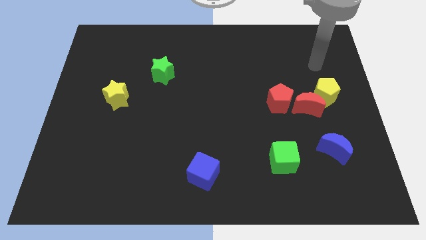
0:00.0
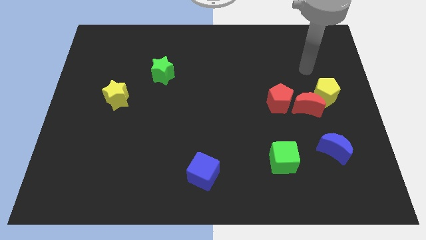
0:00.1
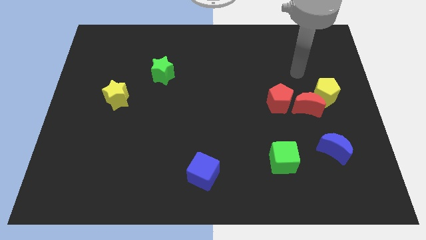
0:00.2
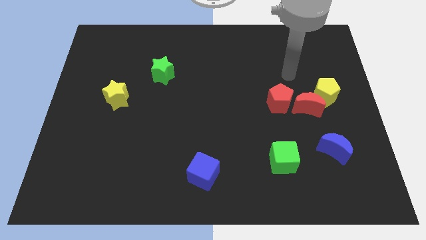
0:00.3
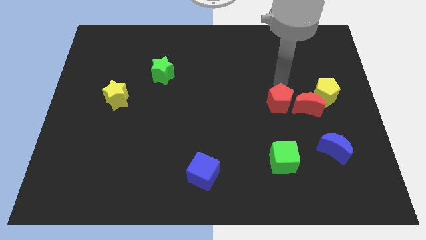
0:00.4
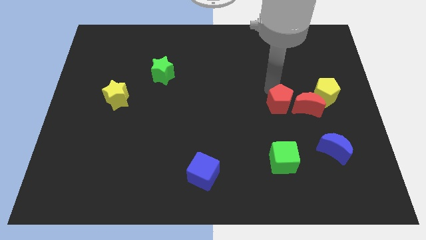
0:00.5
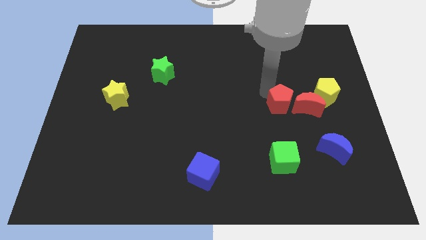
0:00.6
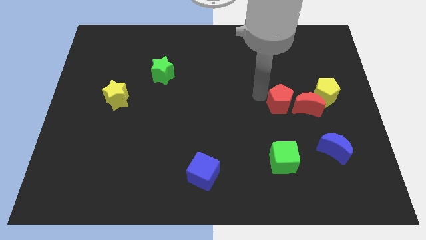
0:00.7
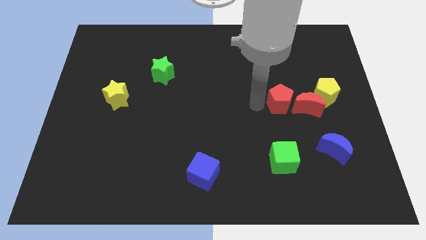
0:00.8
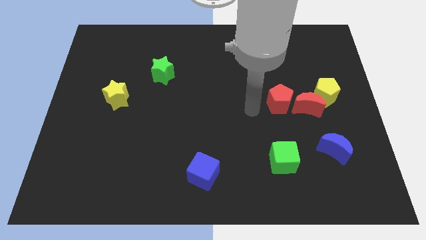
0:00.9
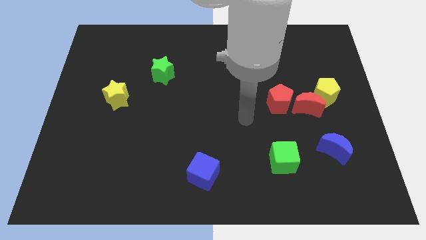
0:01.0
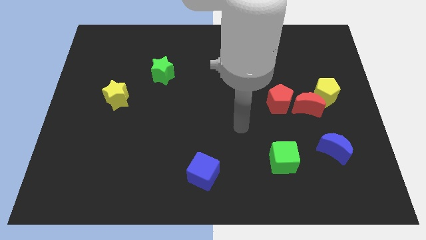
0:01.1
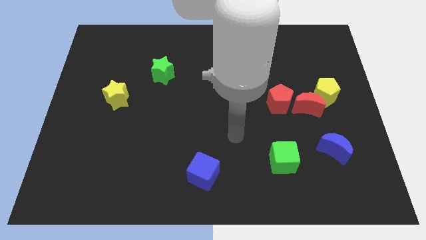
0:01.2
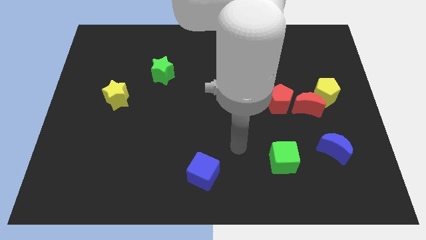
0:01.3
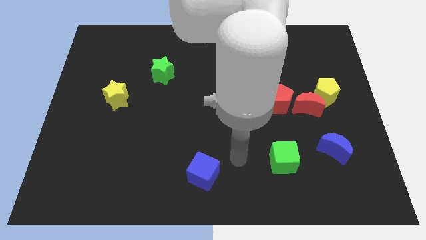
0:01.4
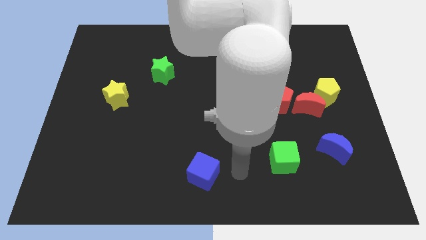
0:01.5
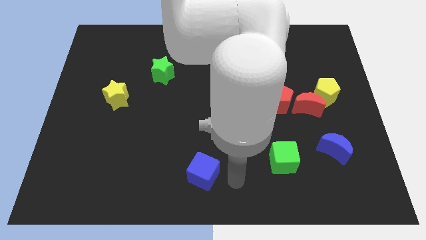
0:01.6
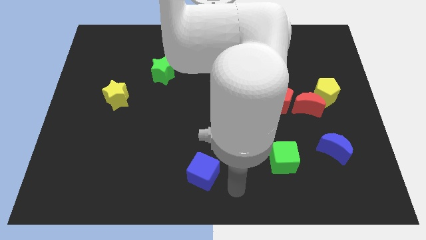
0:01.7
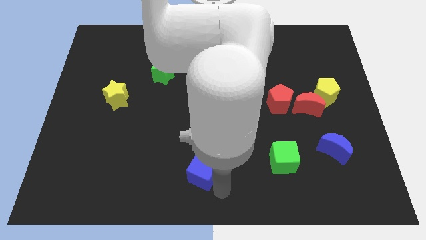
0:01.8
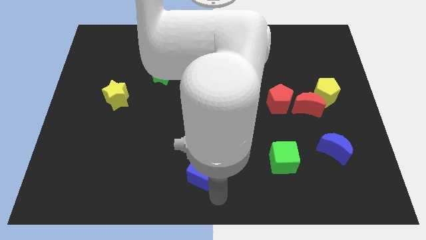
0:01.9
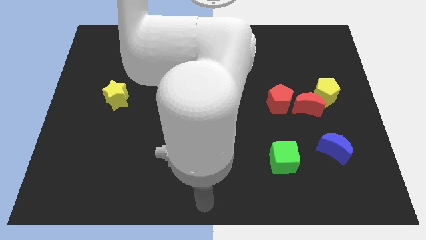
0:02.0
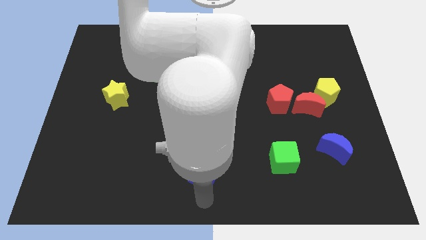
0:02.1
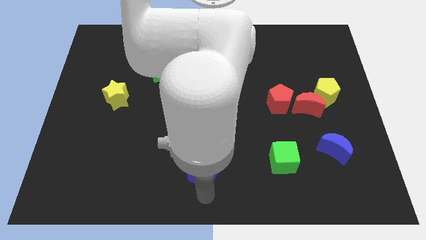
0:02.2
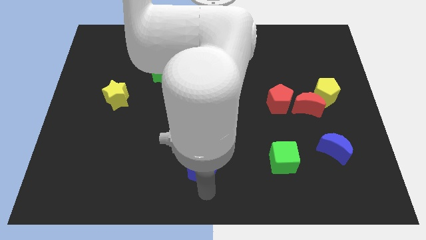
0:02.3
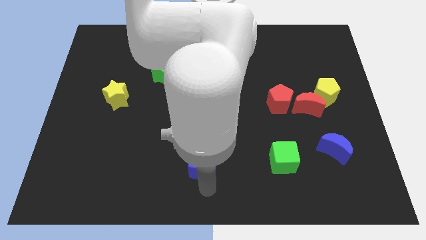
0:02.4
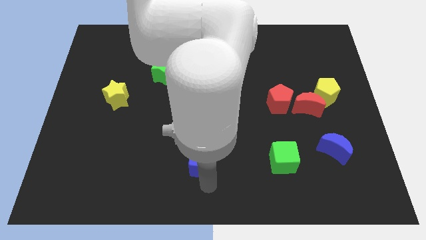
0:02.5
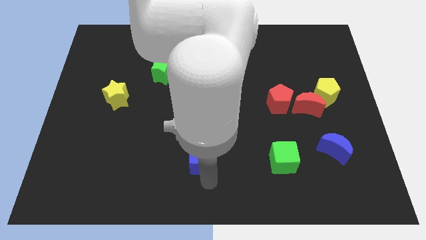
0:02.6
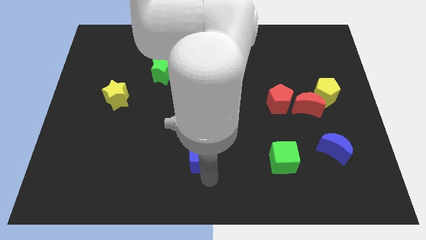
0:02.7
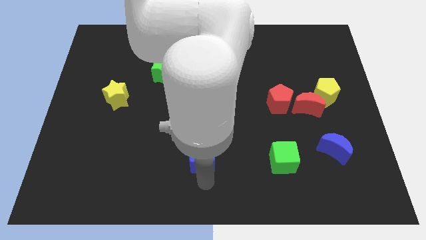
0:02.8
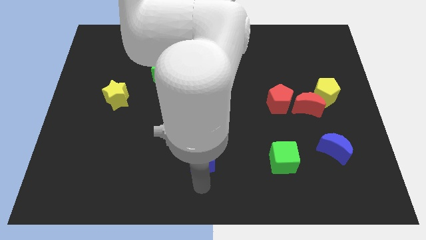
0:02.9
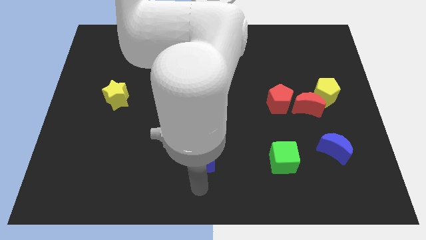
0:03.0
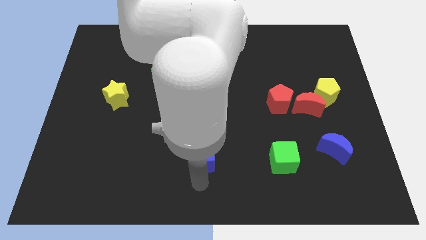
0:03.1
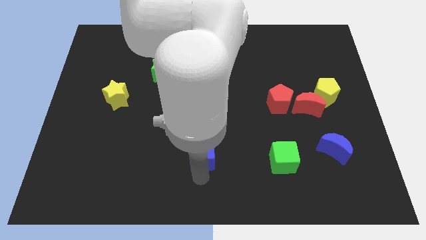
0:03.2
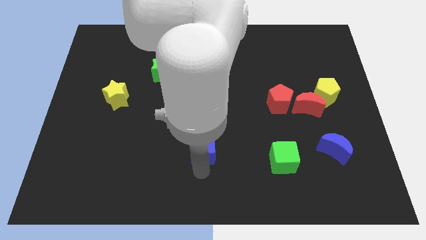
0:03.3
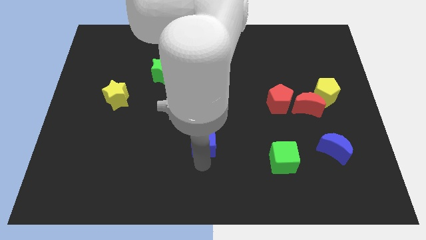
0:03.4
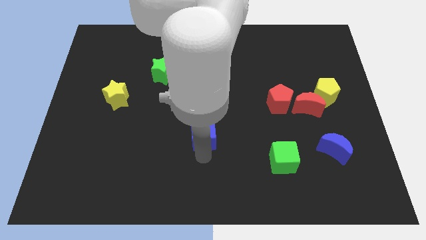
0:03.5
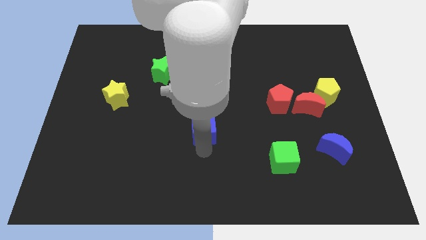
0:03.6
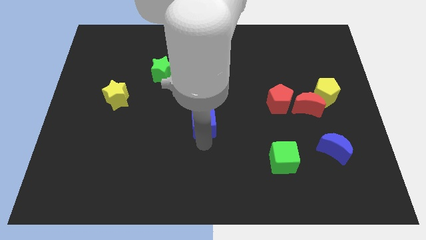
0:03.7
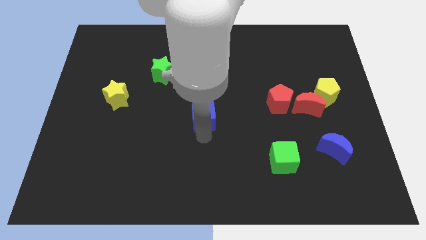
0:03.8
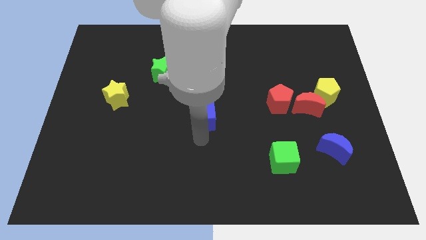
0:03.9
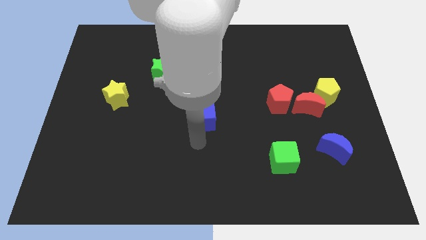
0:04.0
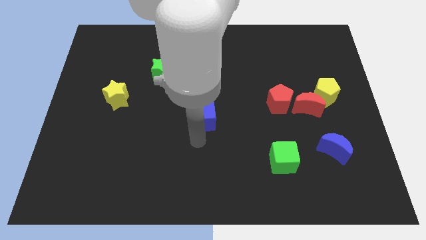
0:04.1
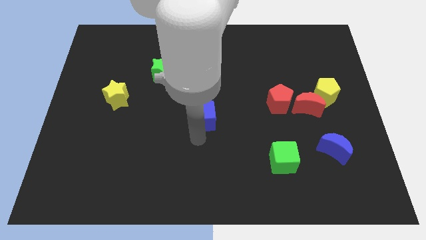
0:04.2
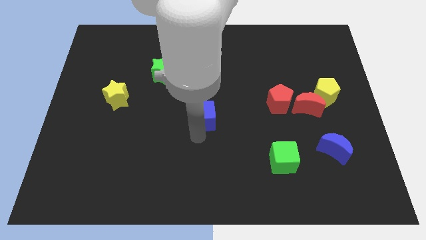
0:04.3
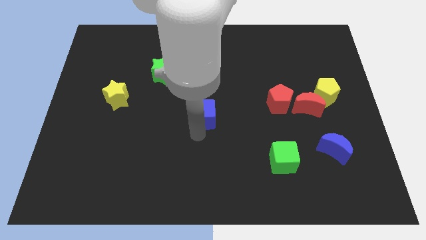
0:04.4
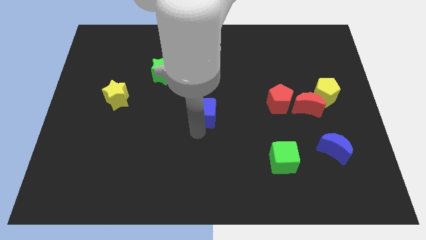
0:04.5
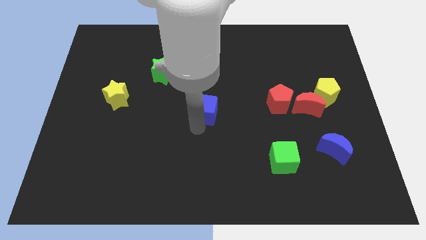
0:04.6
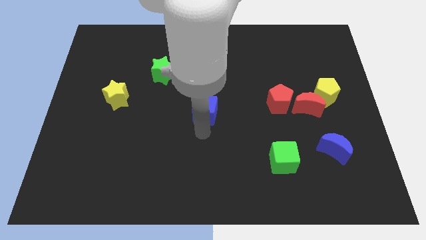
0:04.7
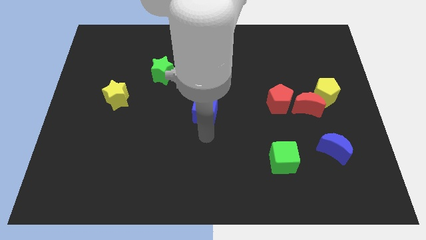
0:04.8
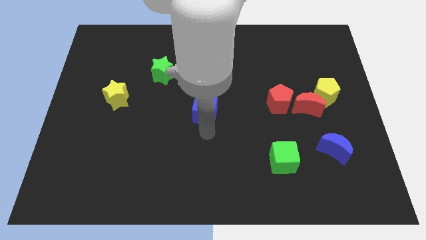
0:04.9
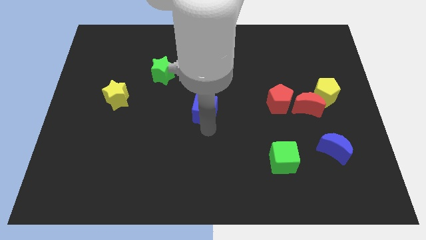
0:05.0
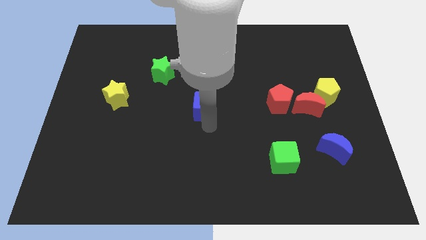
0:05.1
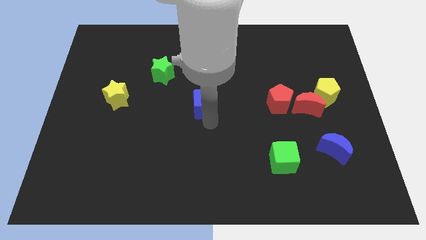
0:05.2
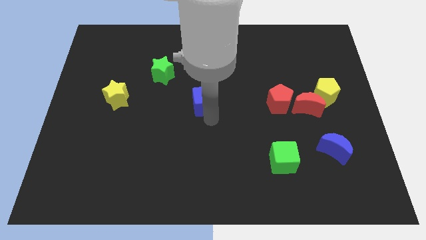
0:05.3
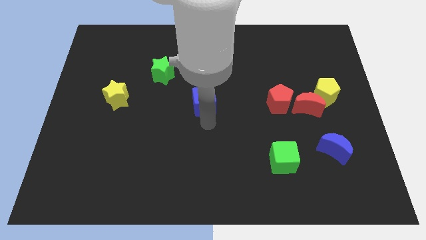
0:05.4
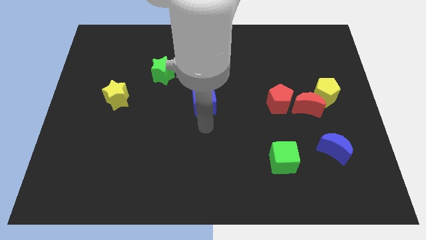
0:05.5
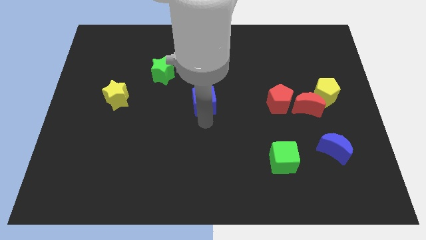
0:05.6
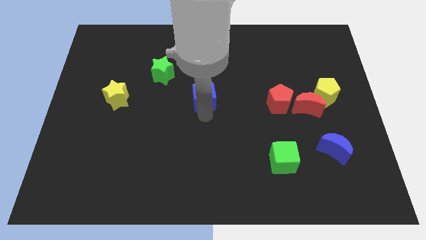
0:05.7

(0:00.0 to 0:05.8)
move the blue cube up

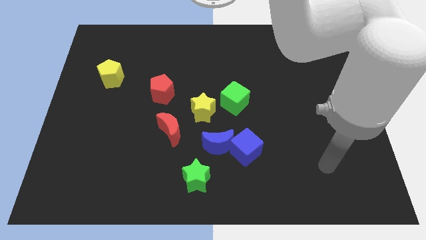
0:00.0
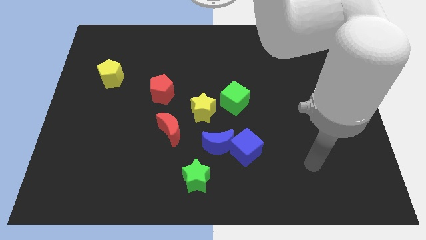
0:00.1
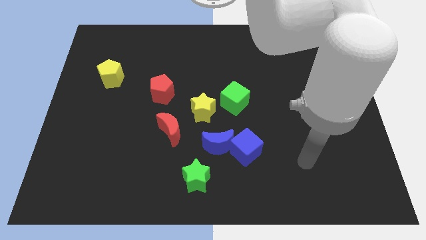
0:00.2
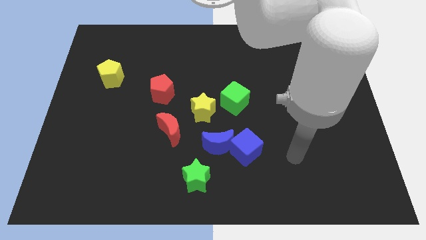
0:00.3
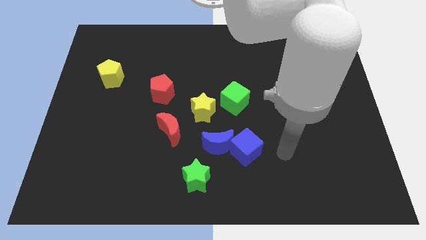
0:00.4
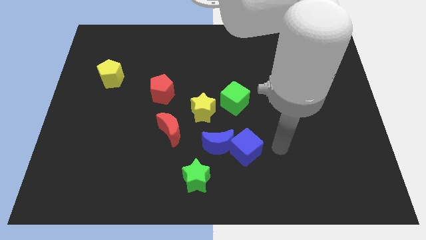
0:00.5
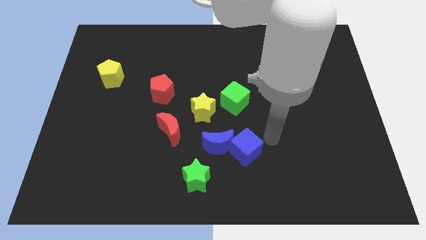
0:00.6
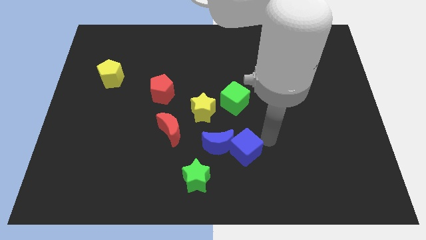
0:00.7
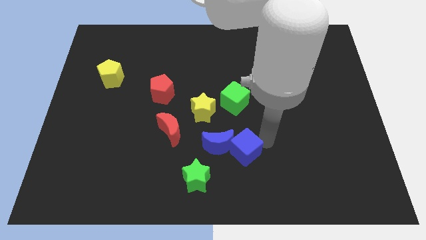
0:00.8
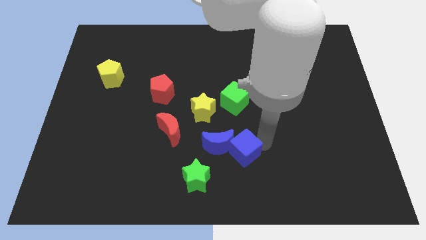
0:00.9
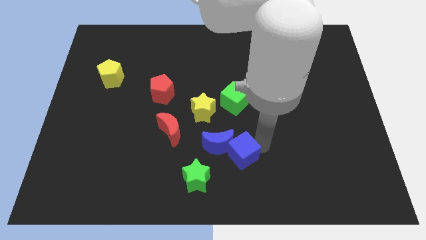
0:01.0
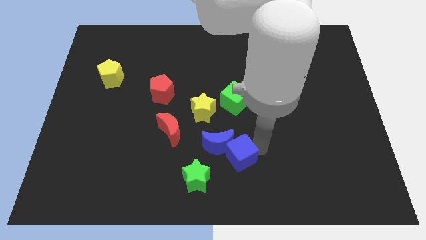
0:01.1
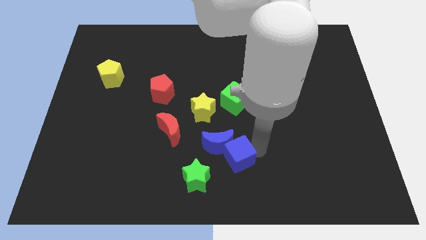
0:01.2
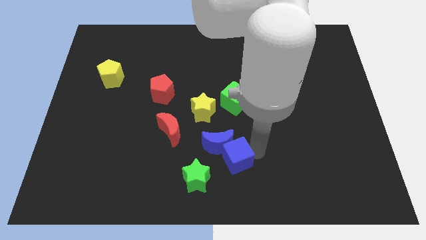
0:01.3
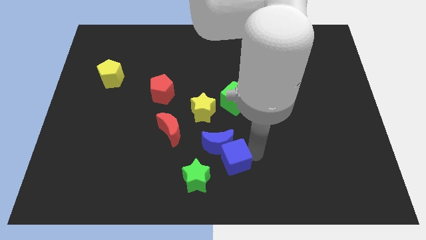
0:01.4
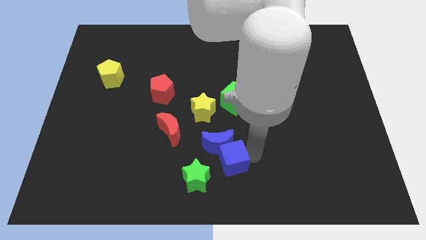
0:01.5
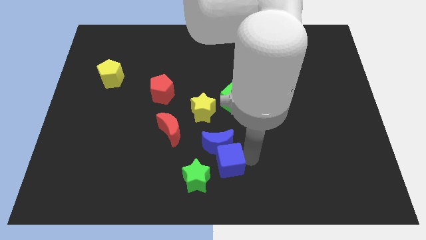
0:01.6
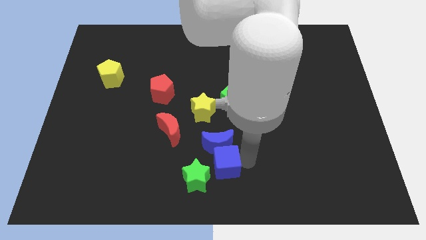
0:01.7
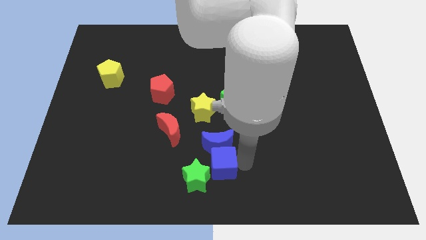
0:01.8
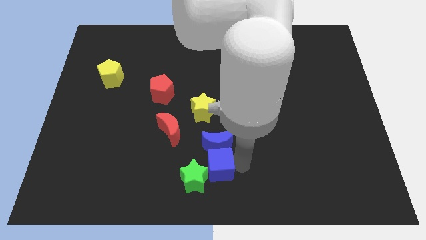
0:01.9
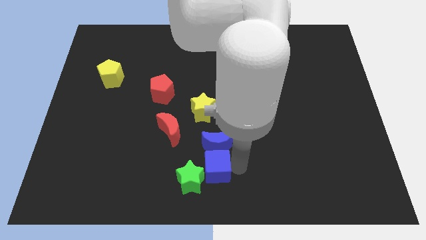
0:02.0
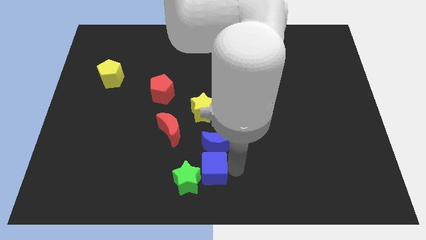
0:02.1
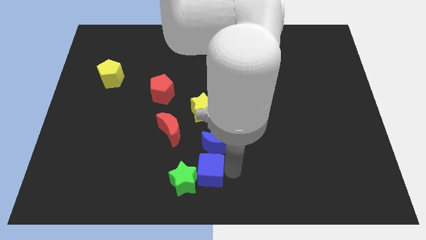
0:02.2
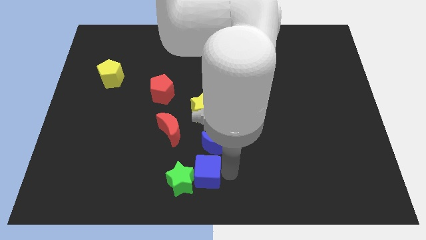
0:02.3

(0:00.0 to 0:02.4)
push the blue cube to the left somewhat
